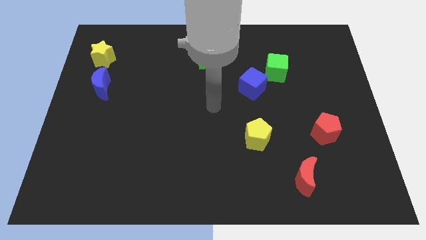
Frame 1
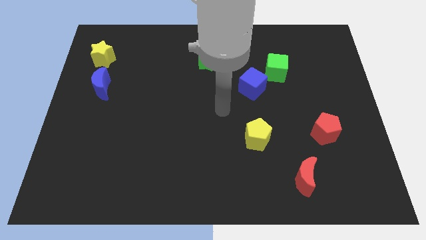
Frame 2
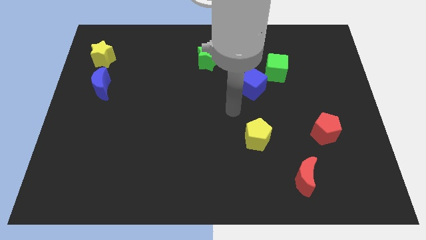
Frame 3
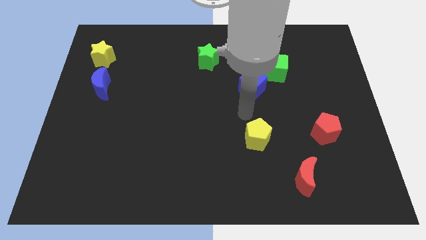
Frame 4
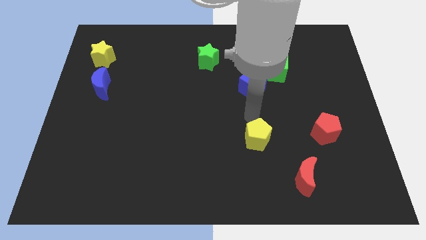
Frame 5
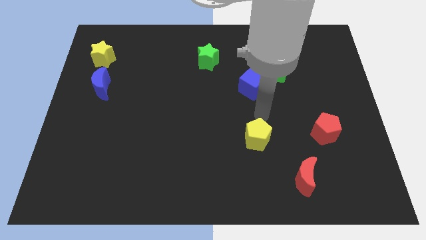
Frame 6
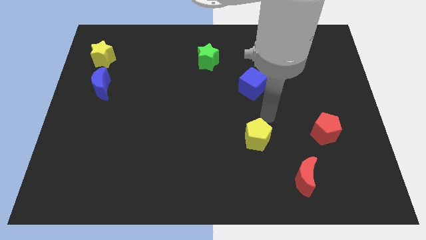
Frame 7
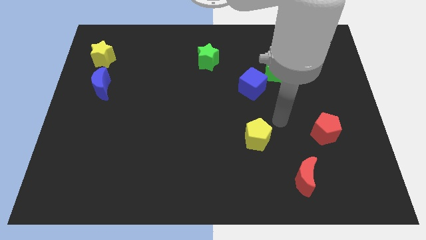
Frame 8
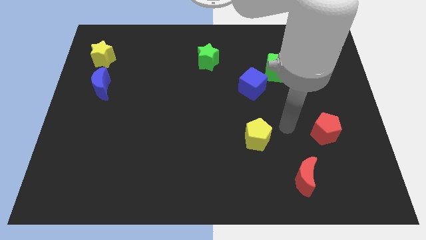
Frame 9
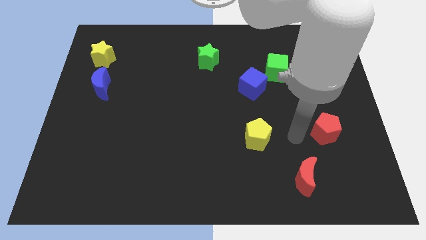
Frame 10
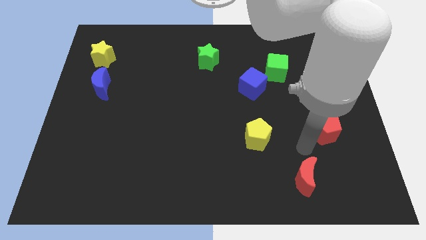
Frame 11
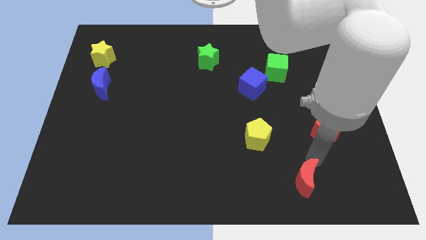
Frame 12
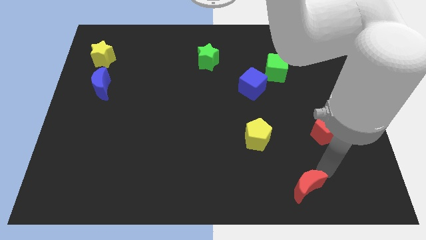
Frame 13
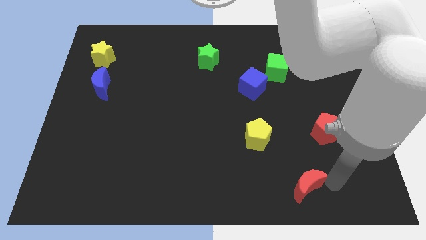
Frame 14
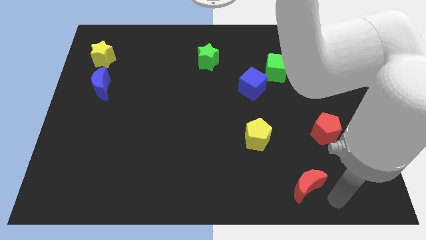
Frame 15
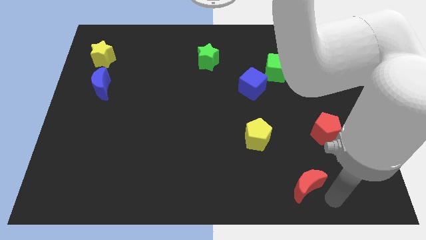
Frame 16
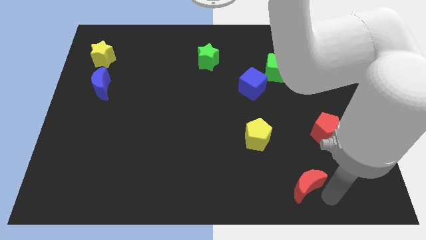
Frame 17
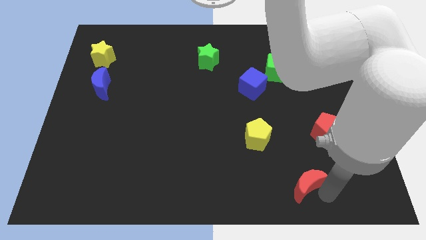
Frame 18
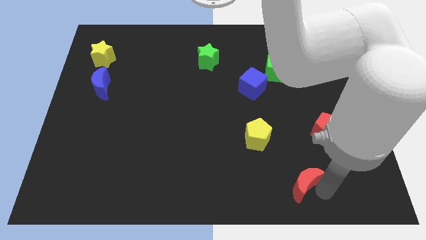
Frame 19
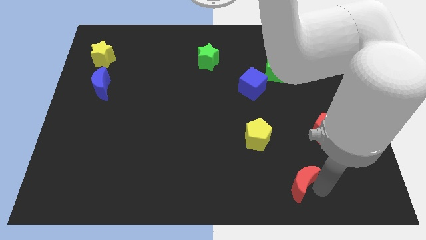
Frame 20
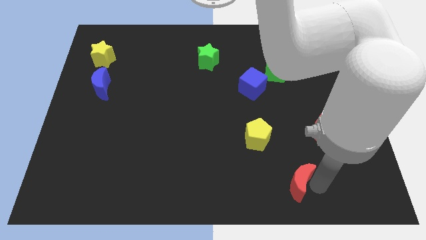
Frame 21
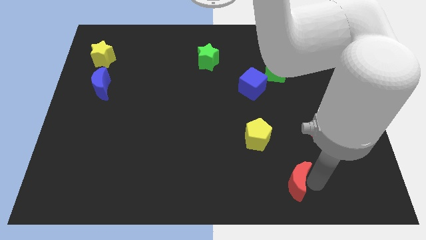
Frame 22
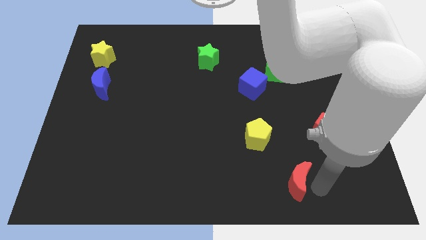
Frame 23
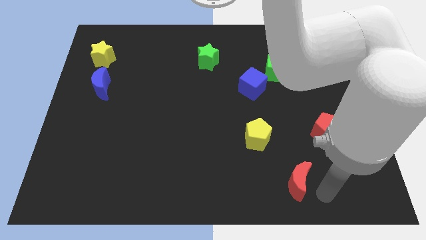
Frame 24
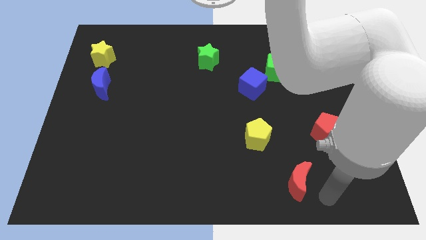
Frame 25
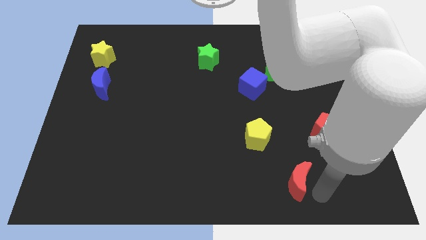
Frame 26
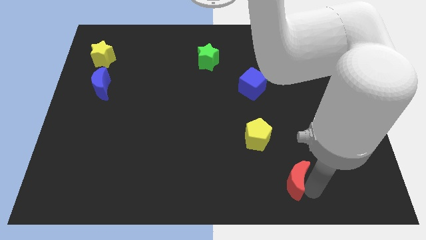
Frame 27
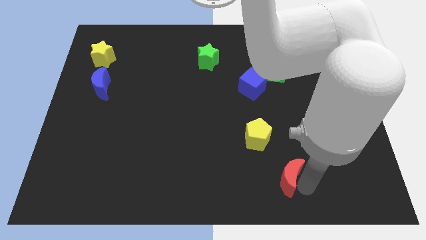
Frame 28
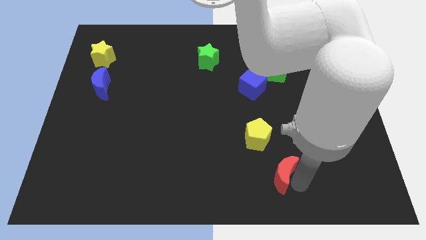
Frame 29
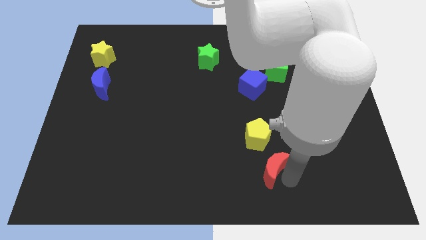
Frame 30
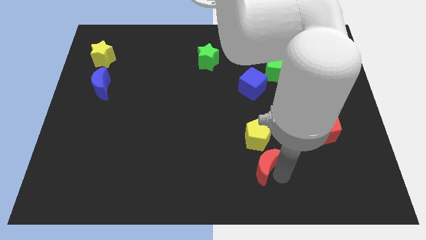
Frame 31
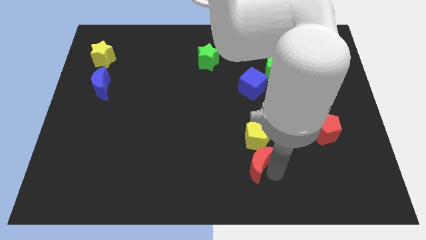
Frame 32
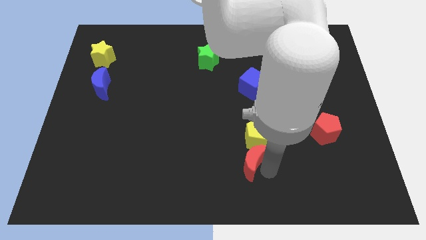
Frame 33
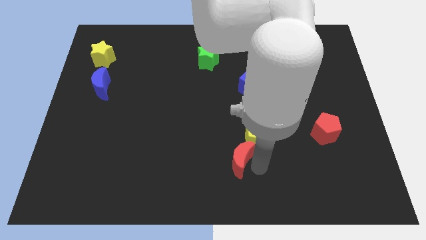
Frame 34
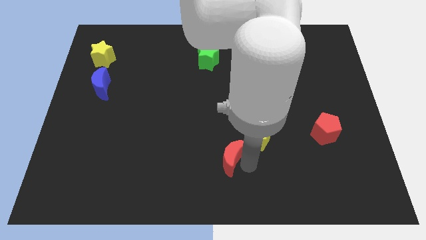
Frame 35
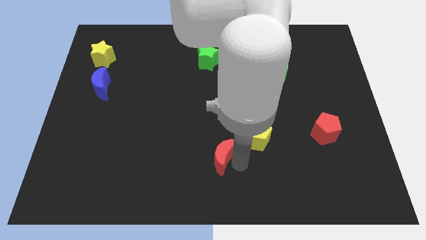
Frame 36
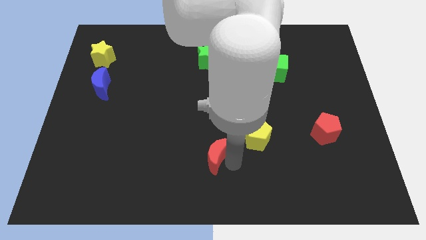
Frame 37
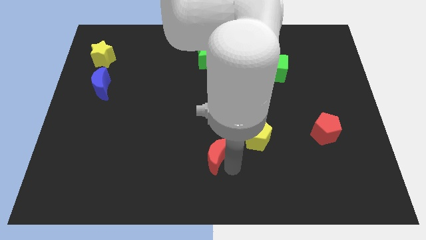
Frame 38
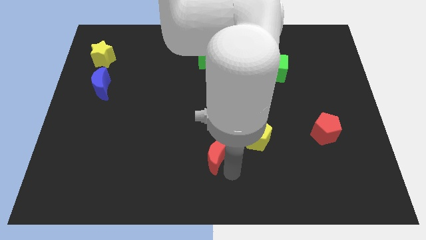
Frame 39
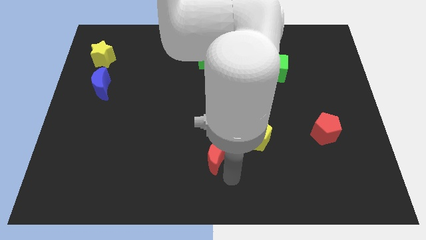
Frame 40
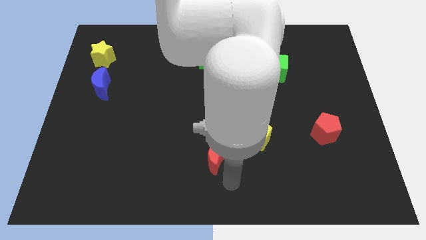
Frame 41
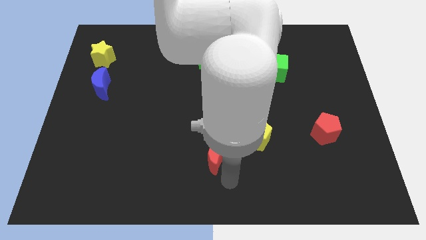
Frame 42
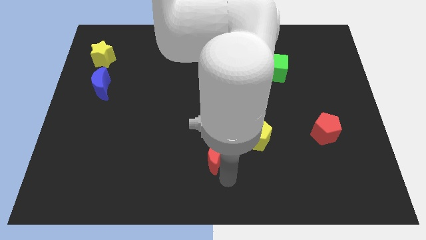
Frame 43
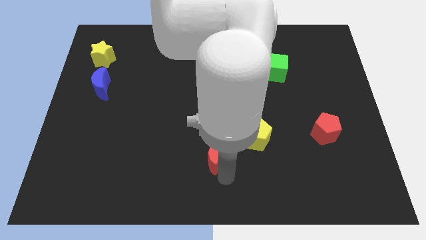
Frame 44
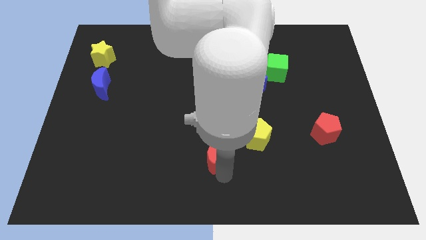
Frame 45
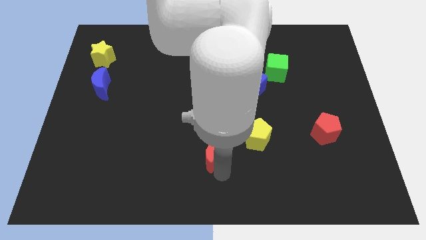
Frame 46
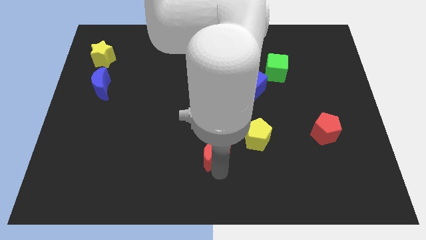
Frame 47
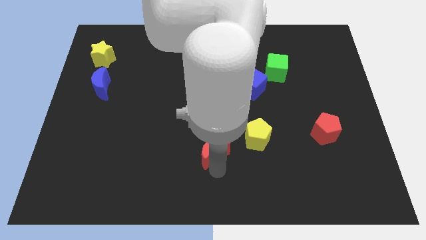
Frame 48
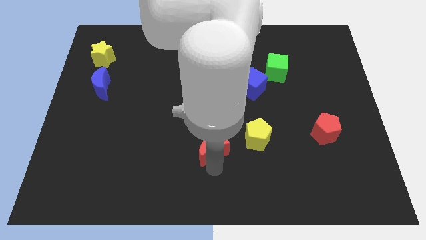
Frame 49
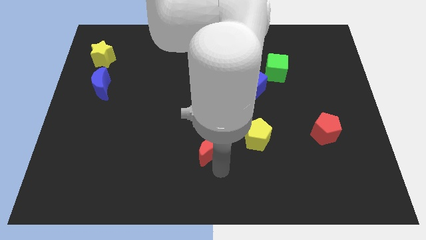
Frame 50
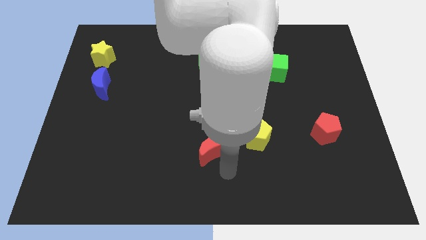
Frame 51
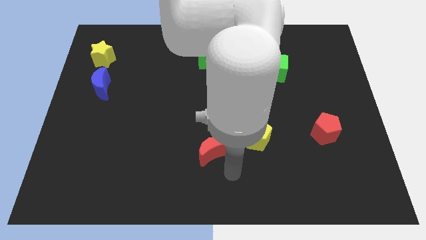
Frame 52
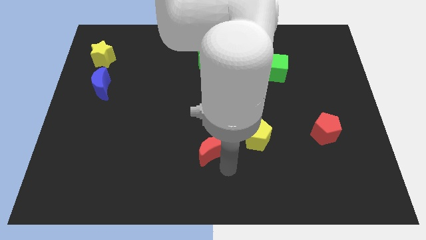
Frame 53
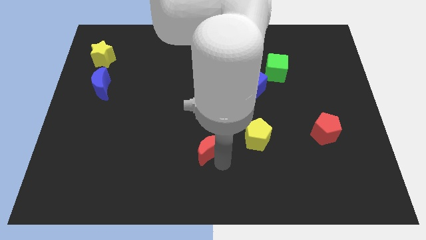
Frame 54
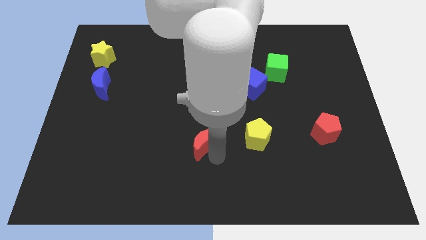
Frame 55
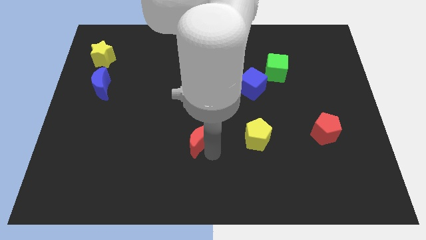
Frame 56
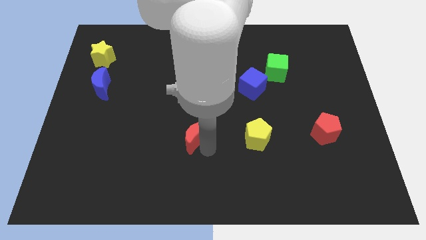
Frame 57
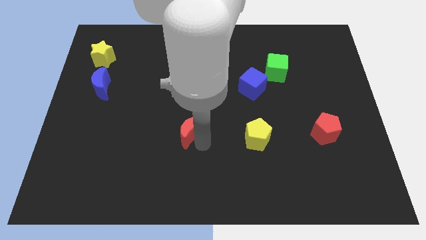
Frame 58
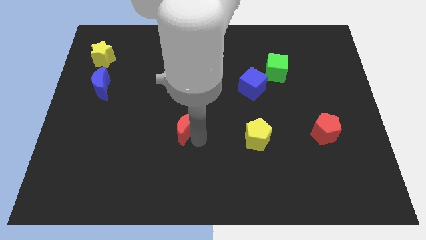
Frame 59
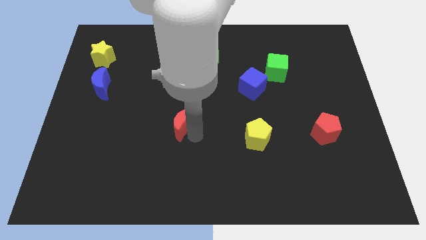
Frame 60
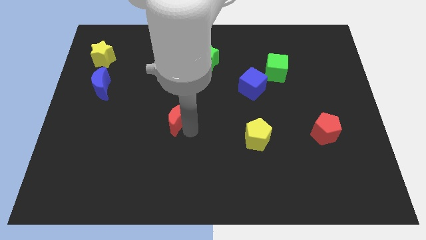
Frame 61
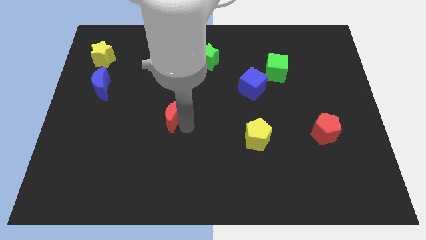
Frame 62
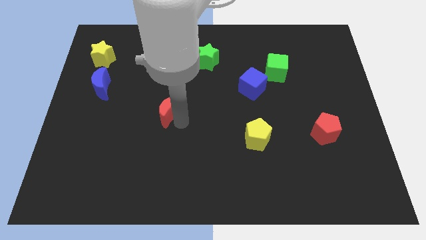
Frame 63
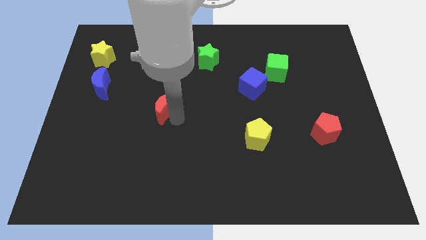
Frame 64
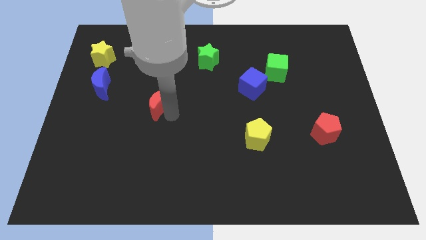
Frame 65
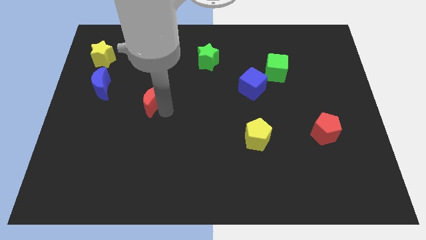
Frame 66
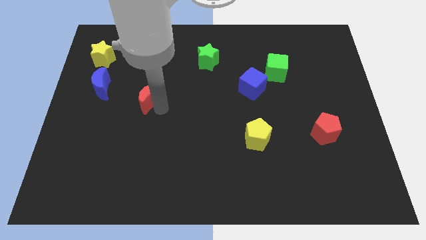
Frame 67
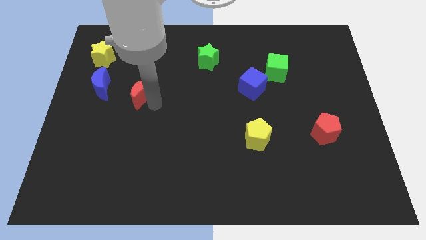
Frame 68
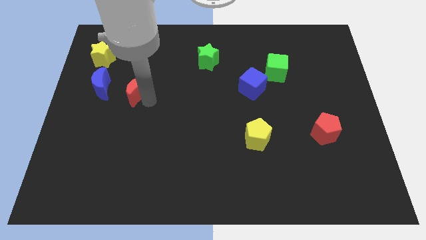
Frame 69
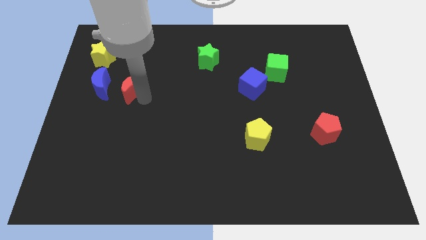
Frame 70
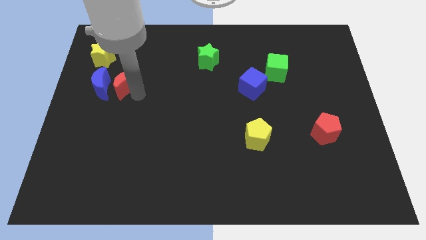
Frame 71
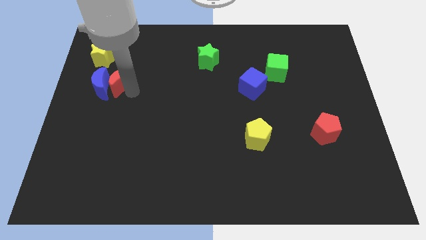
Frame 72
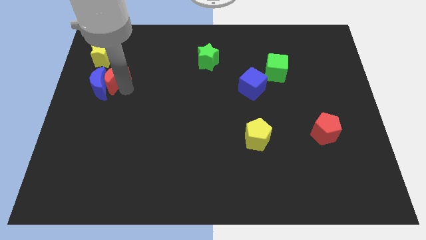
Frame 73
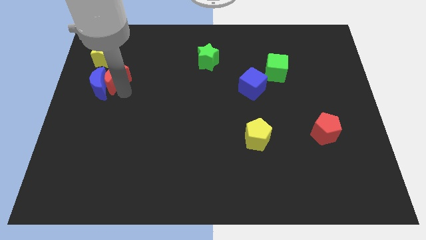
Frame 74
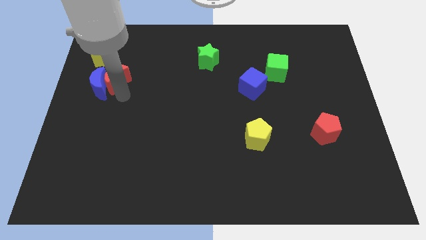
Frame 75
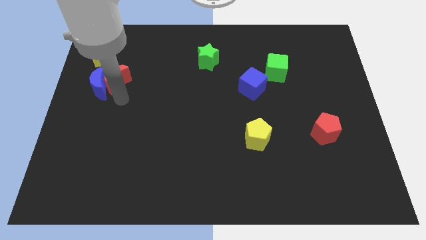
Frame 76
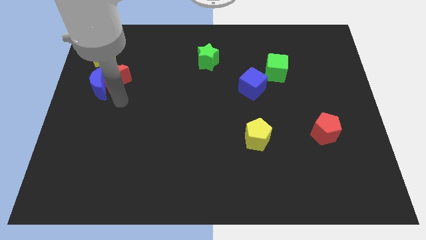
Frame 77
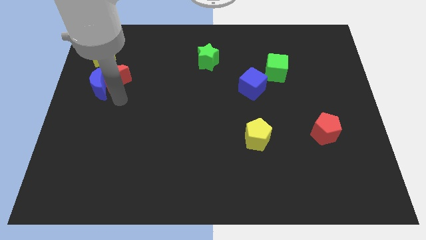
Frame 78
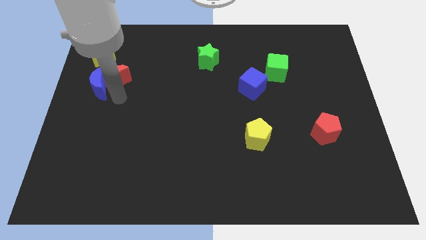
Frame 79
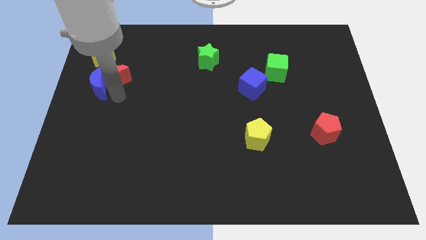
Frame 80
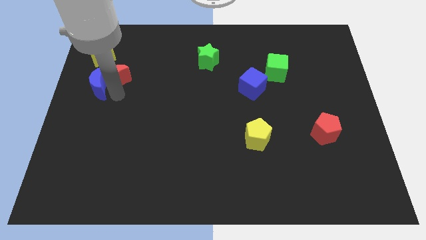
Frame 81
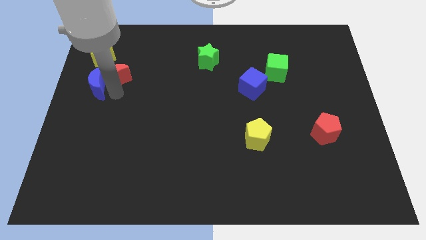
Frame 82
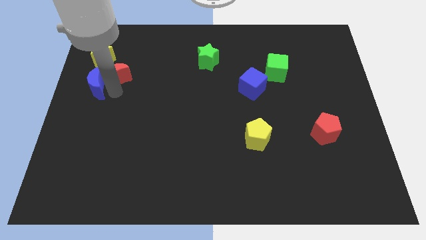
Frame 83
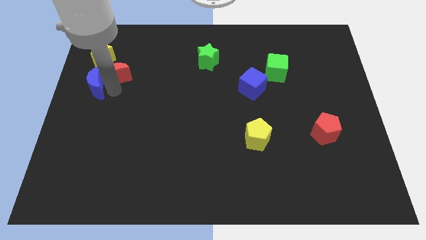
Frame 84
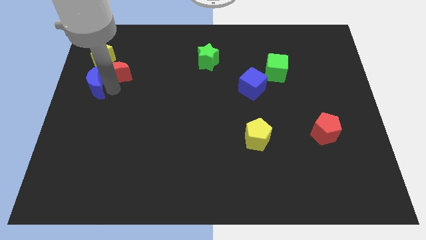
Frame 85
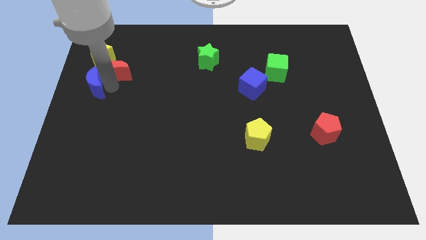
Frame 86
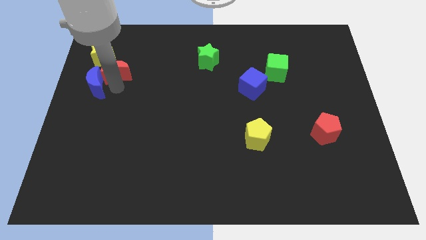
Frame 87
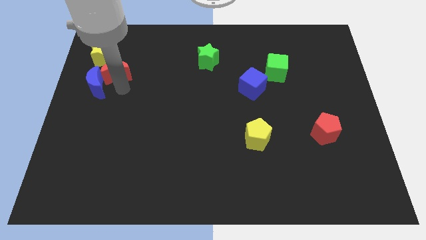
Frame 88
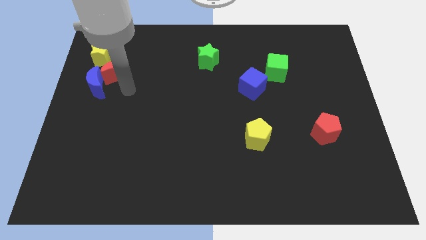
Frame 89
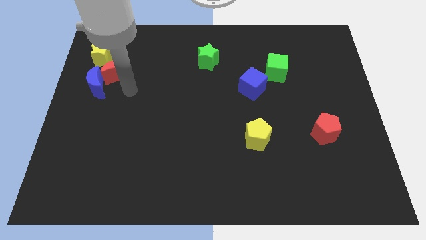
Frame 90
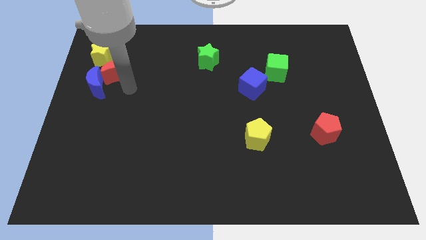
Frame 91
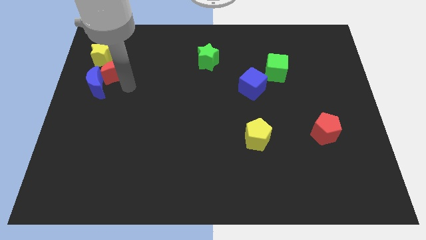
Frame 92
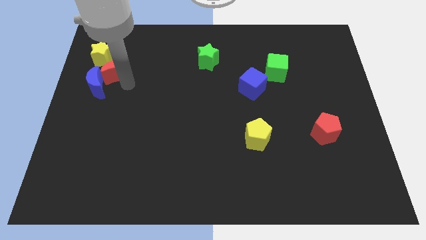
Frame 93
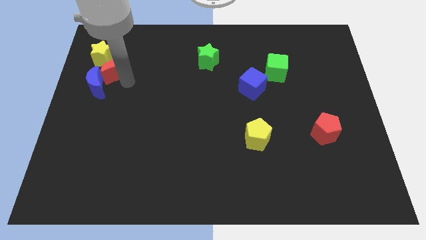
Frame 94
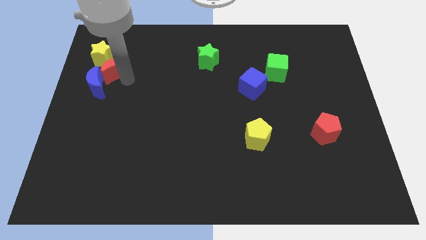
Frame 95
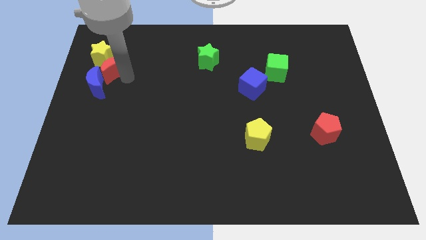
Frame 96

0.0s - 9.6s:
slide the red moon towards the yellow star
